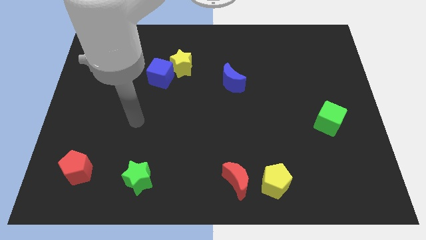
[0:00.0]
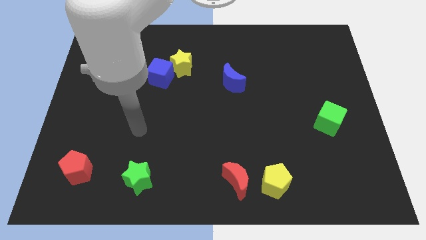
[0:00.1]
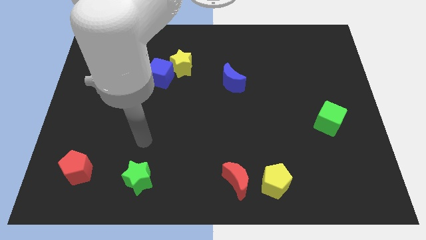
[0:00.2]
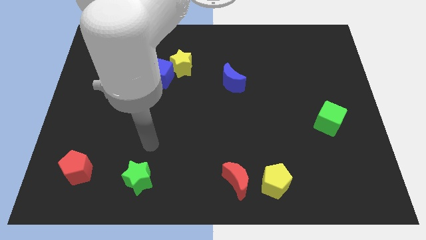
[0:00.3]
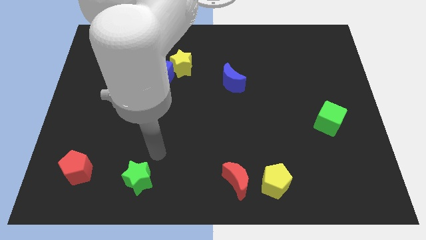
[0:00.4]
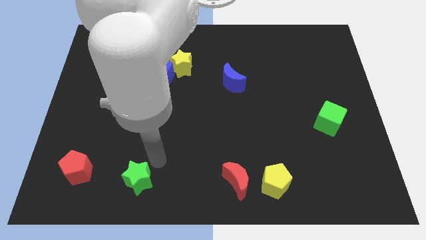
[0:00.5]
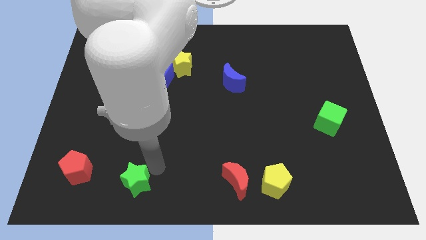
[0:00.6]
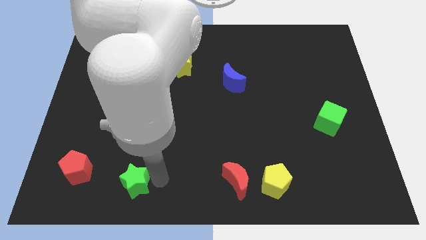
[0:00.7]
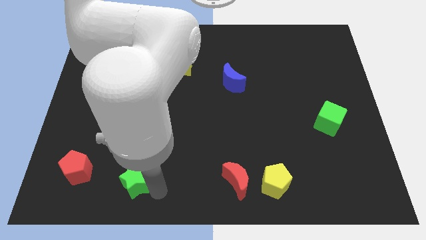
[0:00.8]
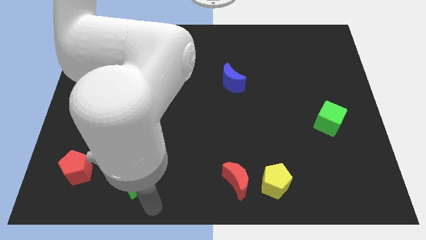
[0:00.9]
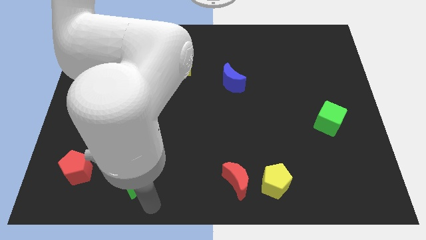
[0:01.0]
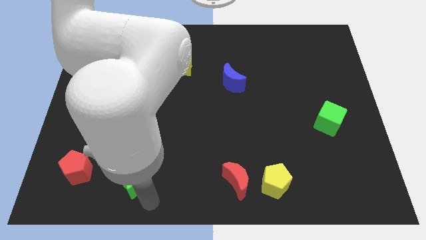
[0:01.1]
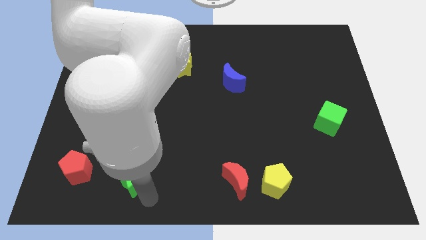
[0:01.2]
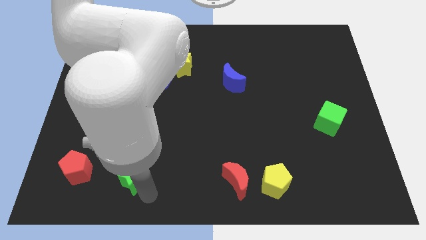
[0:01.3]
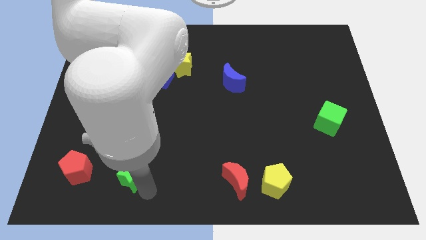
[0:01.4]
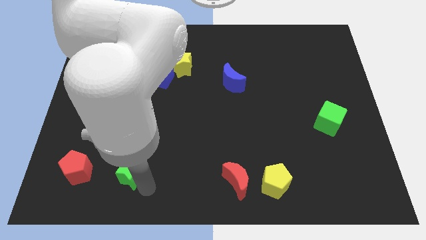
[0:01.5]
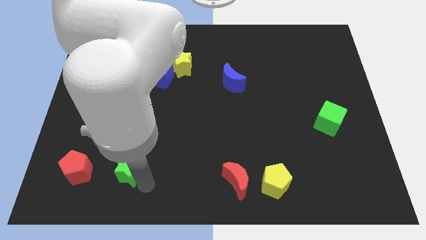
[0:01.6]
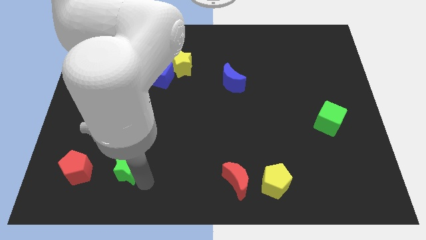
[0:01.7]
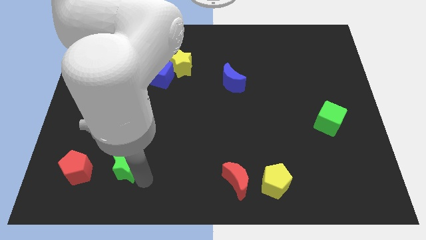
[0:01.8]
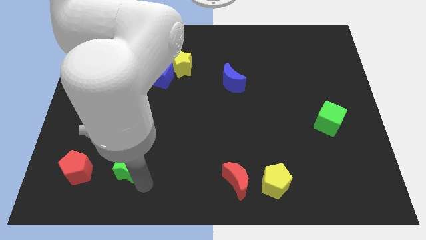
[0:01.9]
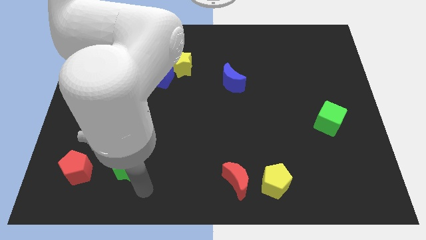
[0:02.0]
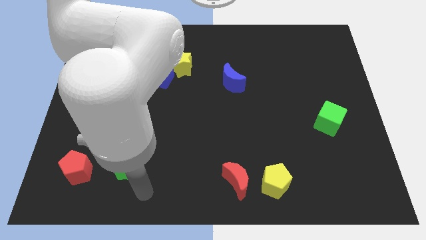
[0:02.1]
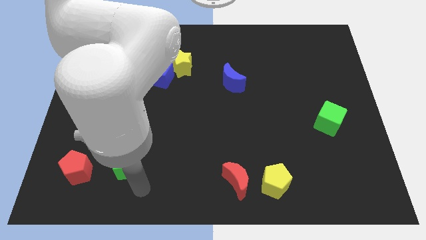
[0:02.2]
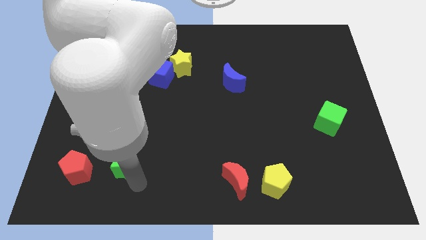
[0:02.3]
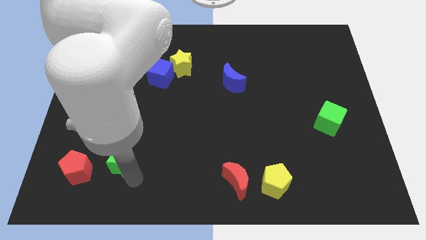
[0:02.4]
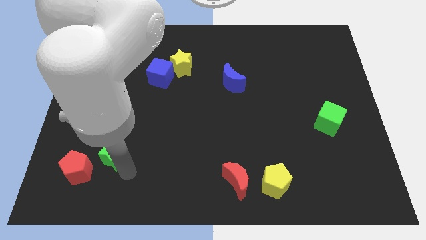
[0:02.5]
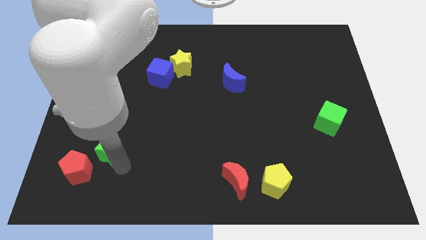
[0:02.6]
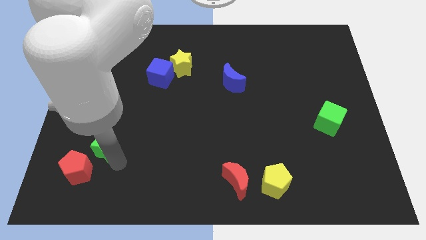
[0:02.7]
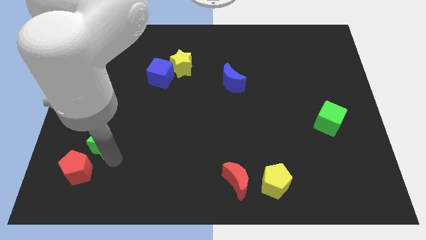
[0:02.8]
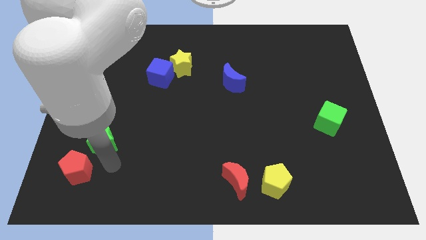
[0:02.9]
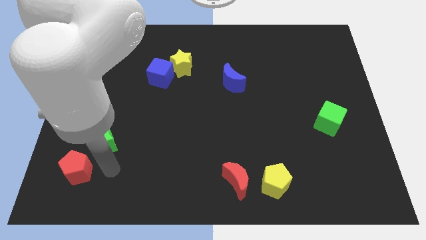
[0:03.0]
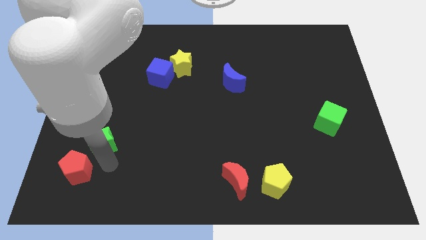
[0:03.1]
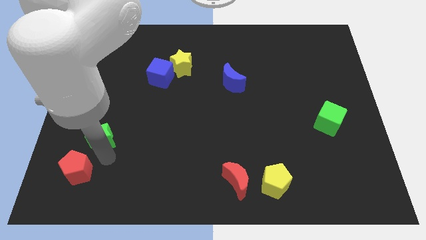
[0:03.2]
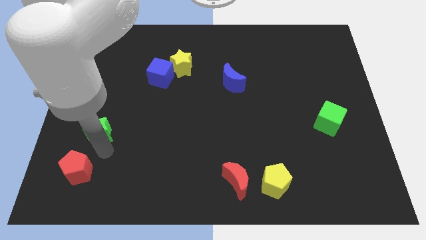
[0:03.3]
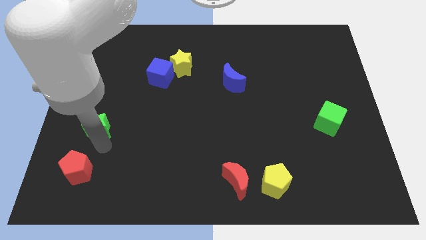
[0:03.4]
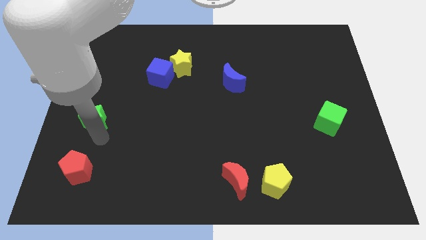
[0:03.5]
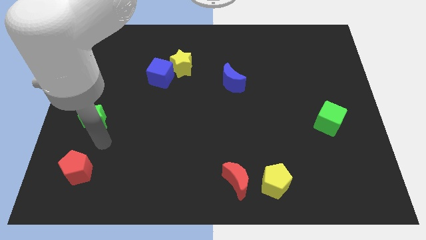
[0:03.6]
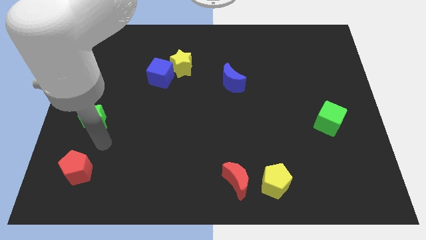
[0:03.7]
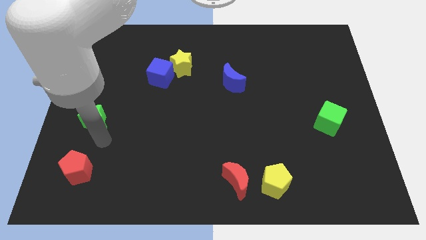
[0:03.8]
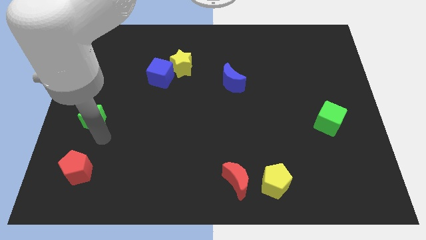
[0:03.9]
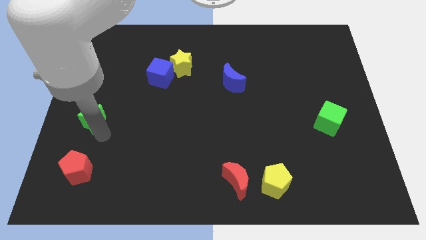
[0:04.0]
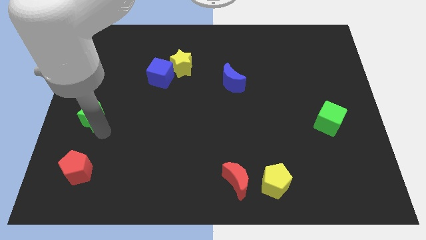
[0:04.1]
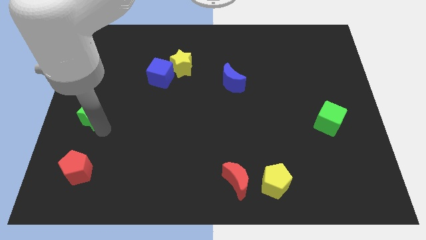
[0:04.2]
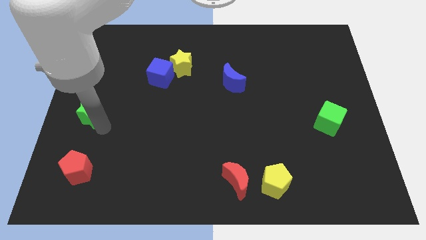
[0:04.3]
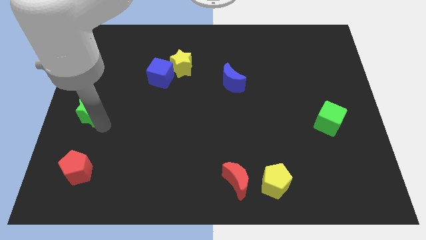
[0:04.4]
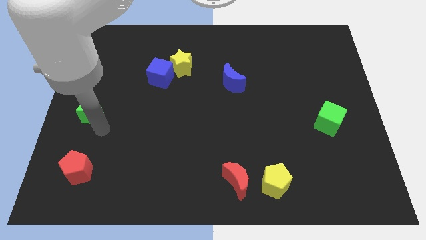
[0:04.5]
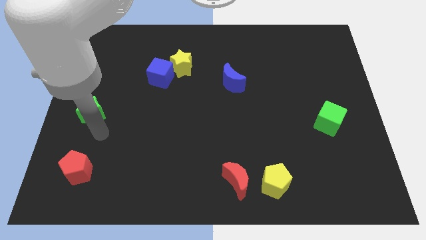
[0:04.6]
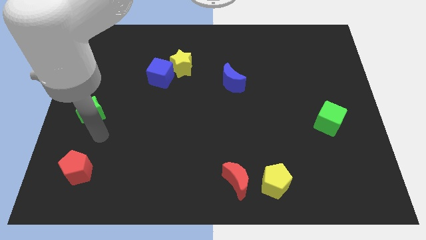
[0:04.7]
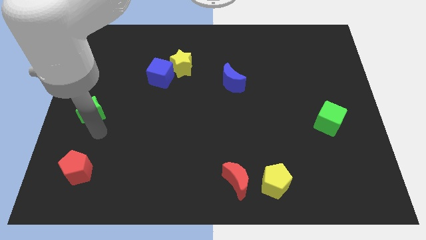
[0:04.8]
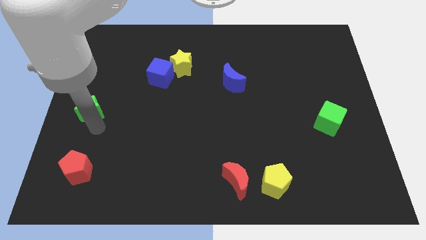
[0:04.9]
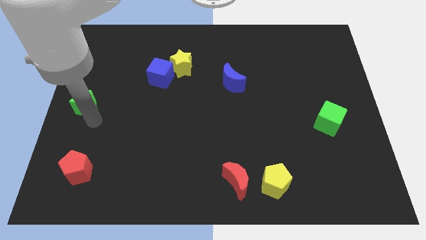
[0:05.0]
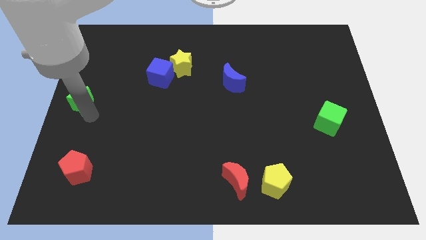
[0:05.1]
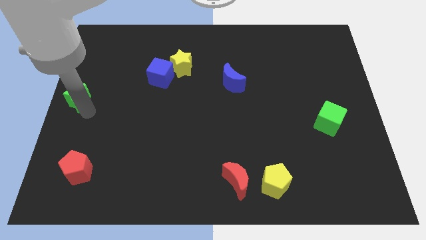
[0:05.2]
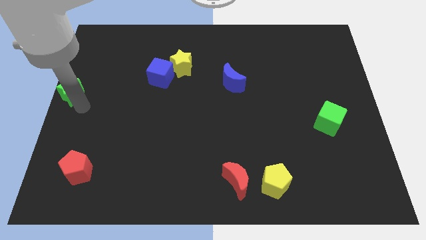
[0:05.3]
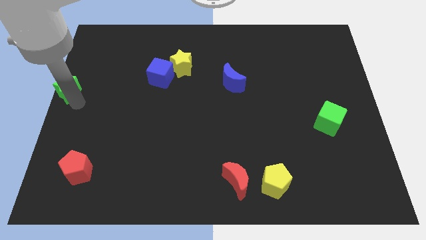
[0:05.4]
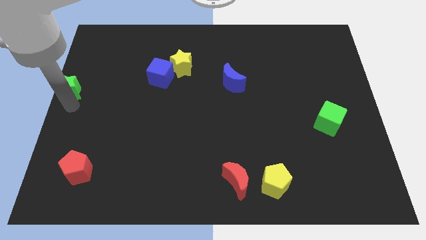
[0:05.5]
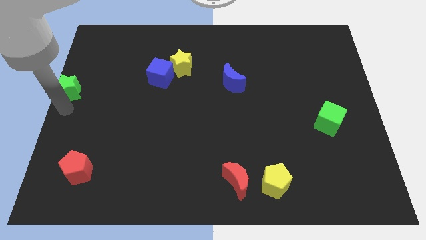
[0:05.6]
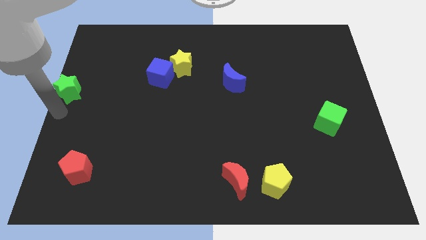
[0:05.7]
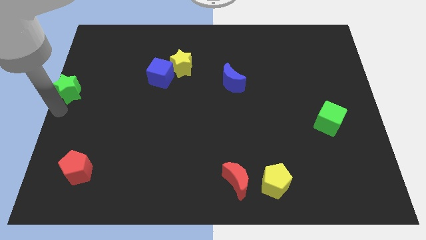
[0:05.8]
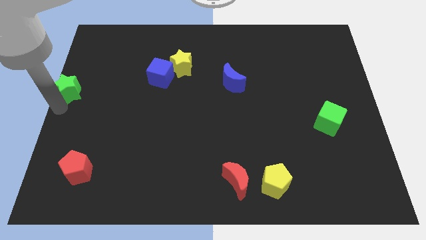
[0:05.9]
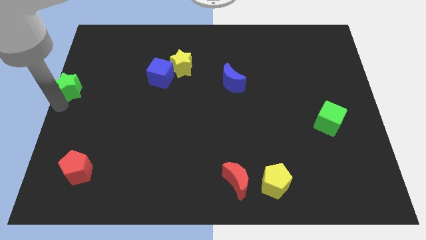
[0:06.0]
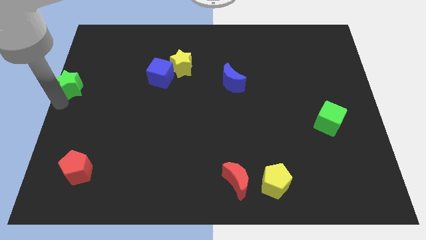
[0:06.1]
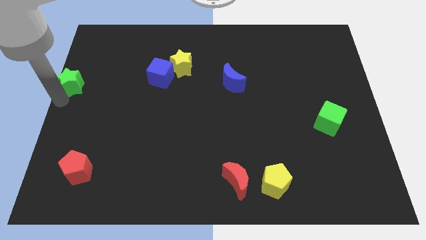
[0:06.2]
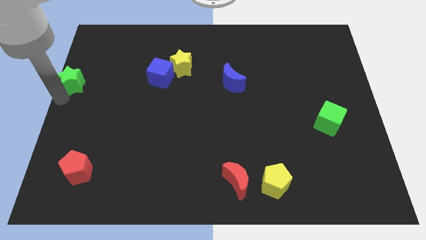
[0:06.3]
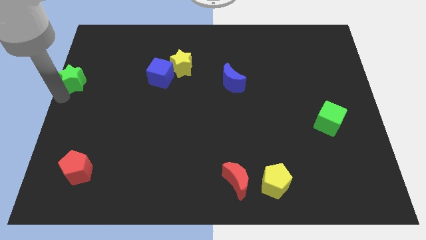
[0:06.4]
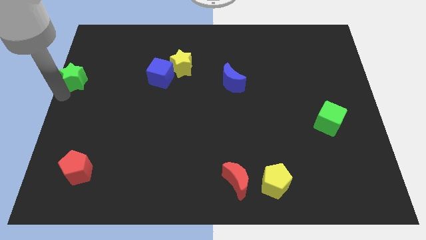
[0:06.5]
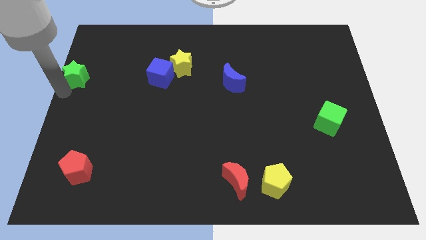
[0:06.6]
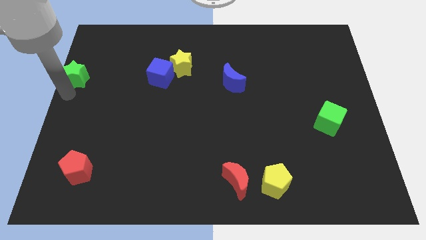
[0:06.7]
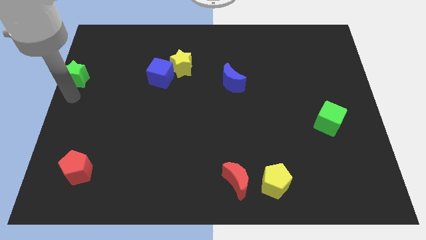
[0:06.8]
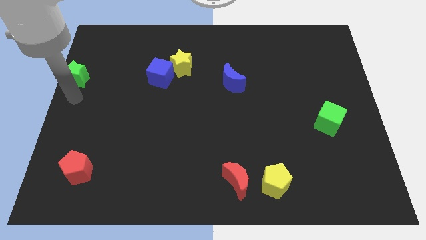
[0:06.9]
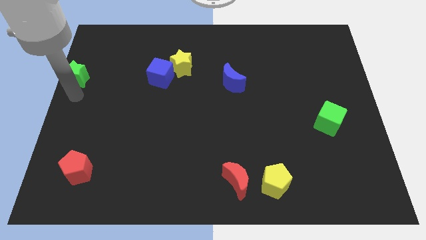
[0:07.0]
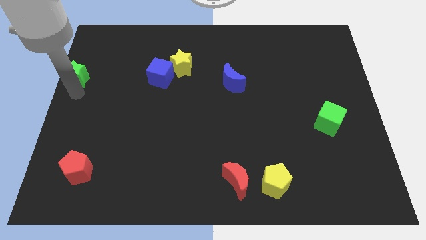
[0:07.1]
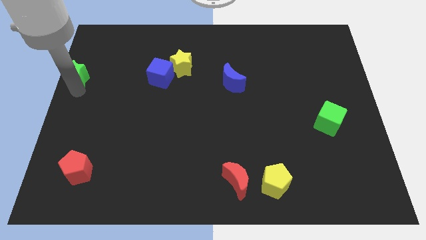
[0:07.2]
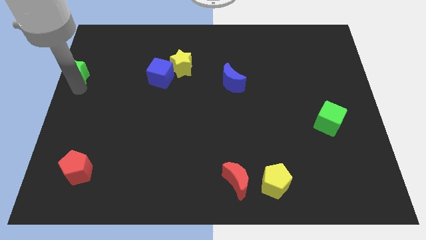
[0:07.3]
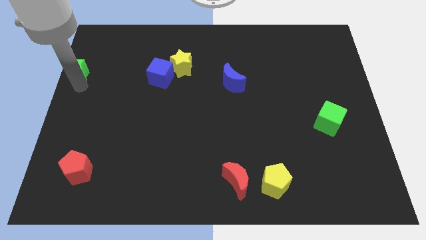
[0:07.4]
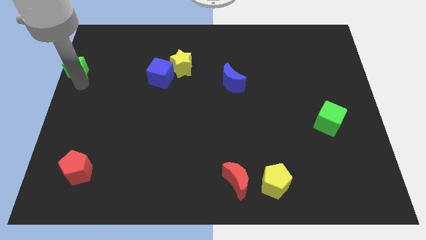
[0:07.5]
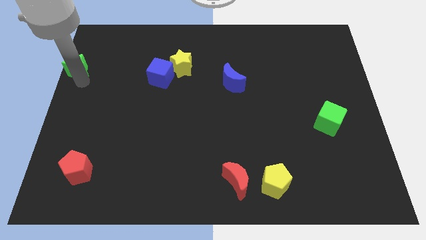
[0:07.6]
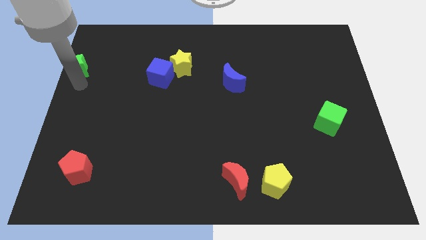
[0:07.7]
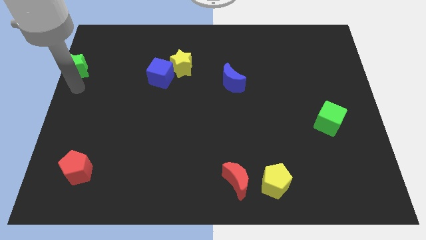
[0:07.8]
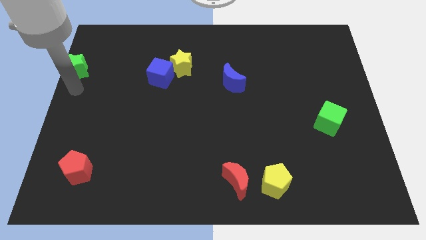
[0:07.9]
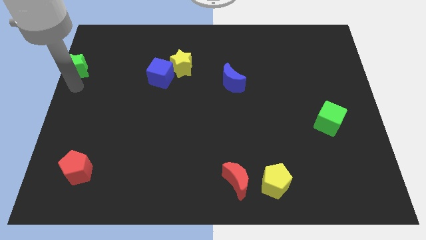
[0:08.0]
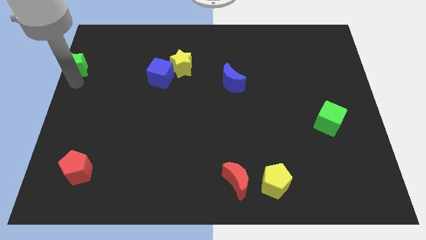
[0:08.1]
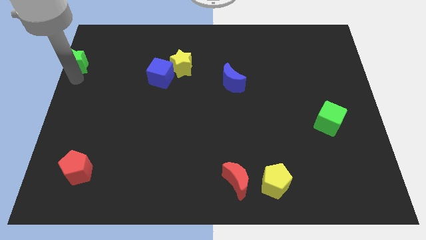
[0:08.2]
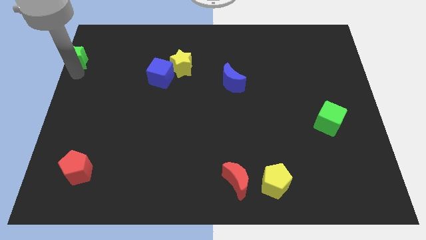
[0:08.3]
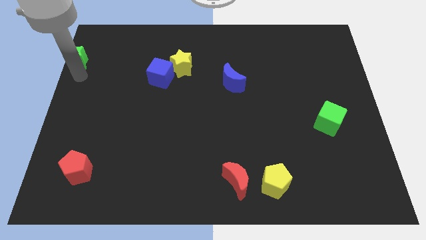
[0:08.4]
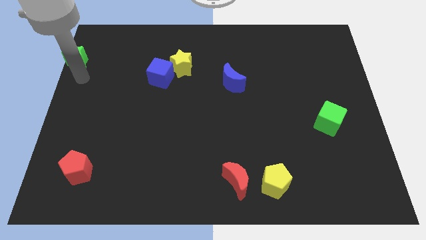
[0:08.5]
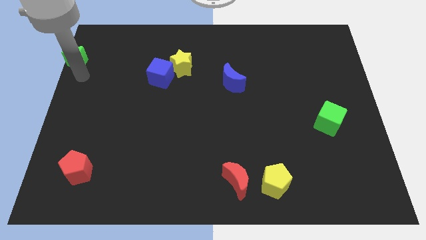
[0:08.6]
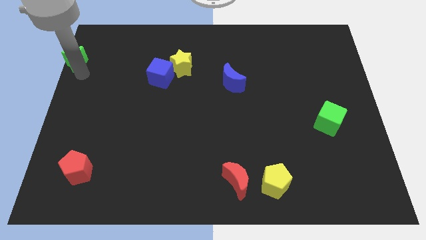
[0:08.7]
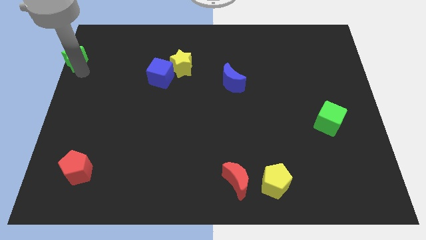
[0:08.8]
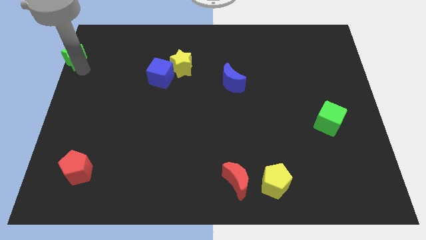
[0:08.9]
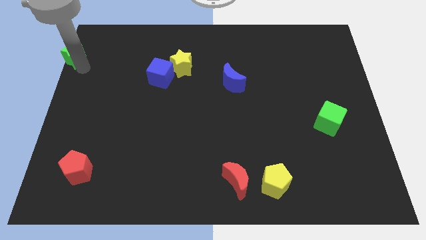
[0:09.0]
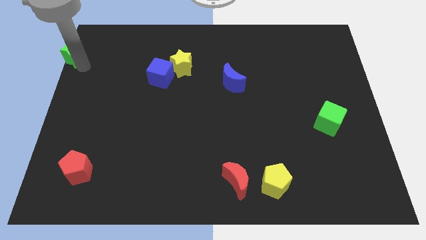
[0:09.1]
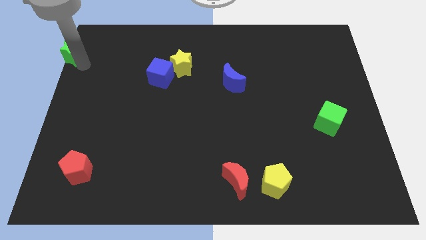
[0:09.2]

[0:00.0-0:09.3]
push the green star to the top left of the board
